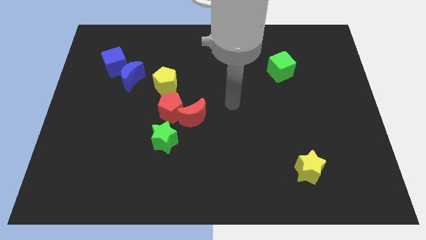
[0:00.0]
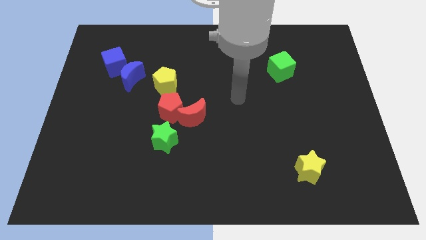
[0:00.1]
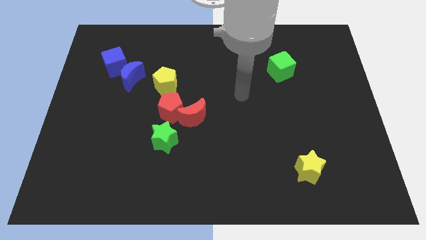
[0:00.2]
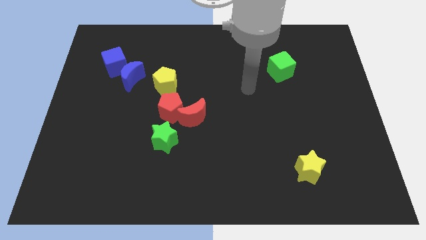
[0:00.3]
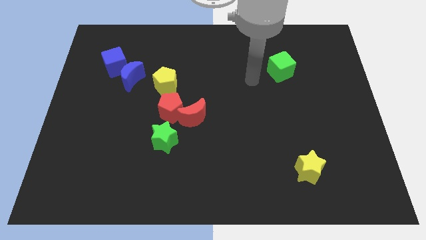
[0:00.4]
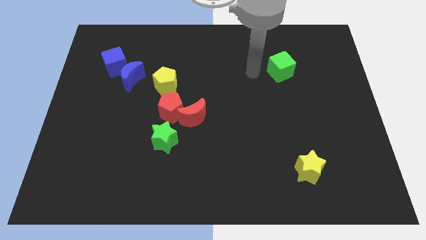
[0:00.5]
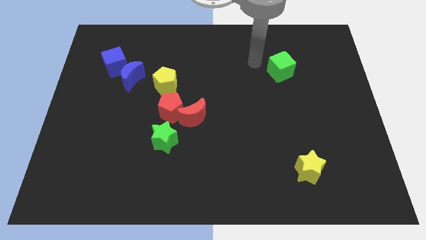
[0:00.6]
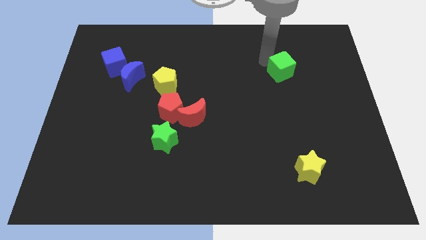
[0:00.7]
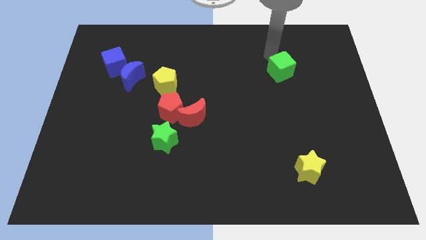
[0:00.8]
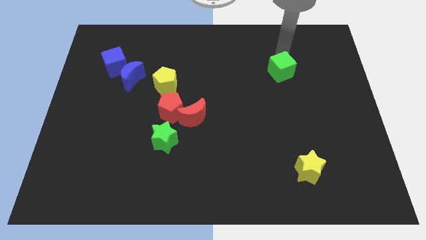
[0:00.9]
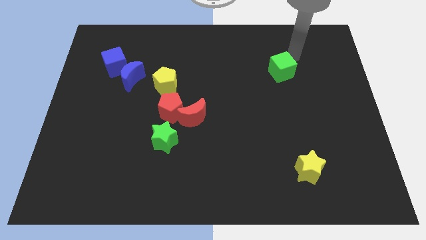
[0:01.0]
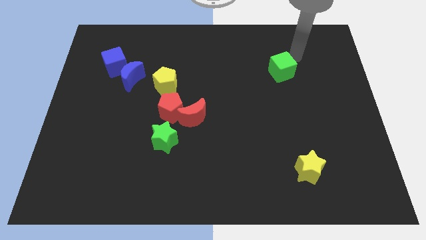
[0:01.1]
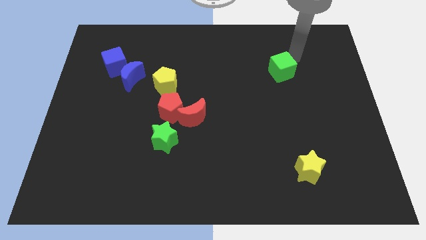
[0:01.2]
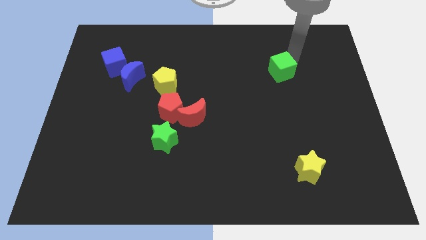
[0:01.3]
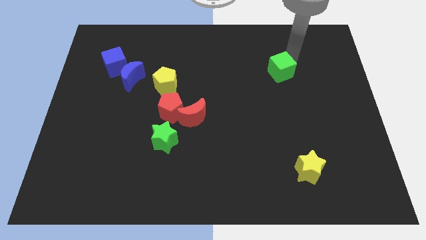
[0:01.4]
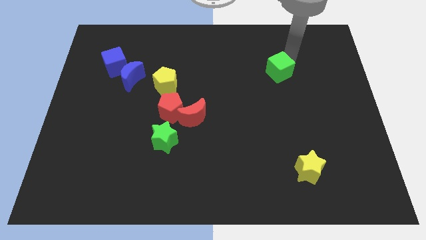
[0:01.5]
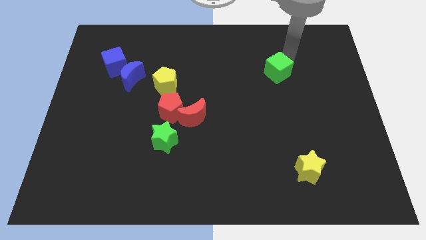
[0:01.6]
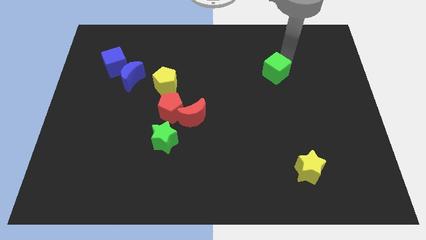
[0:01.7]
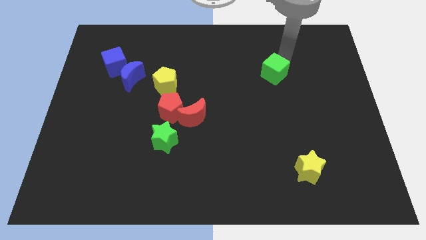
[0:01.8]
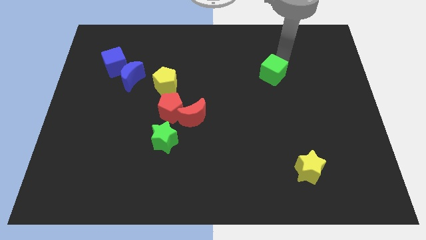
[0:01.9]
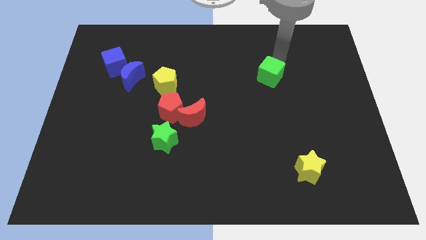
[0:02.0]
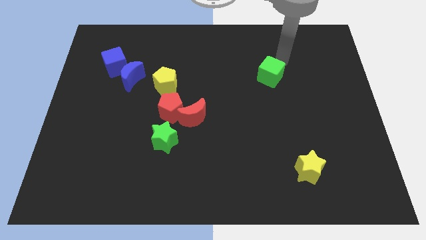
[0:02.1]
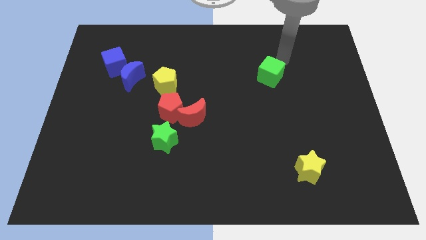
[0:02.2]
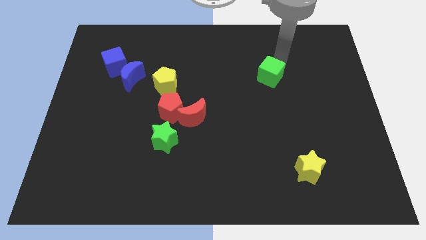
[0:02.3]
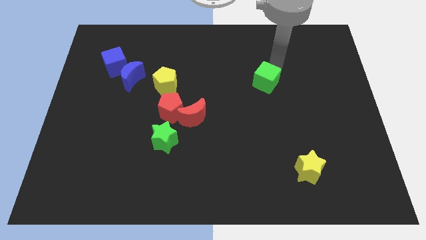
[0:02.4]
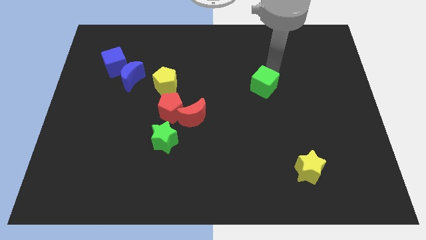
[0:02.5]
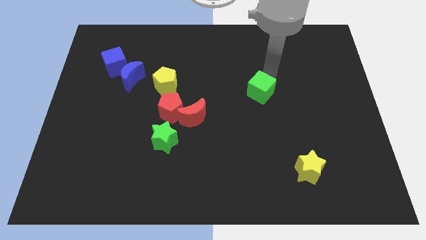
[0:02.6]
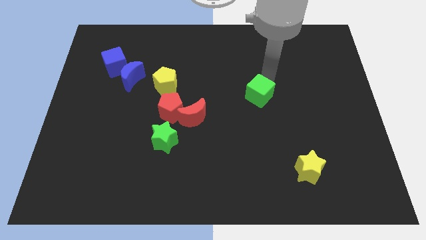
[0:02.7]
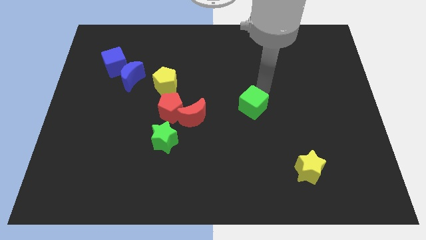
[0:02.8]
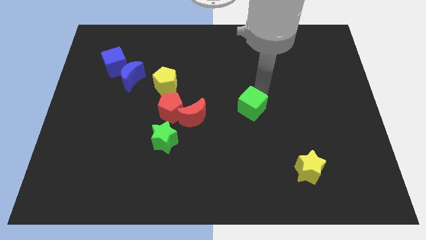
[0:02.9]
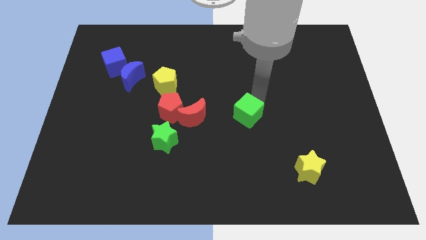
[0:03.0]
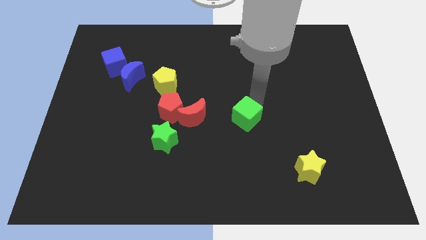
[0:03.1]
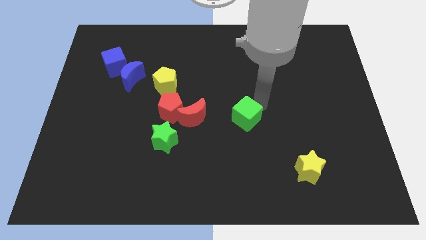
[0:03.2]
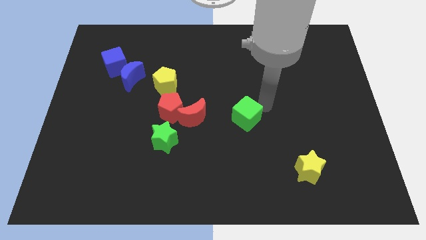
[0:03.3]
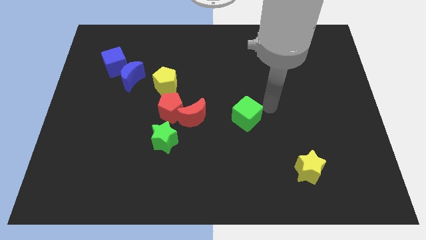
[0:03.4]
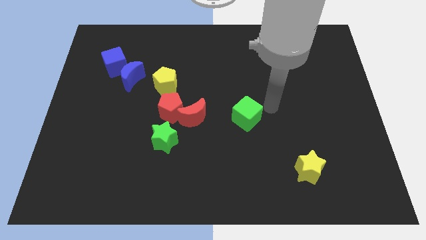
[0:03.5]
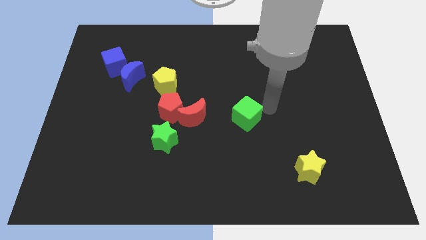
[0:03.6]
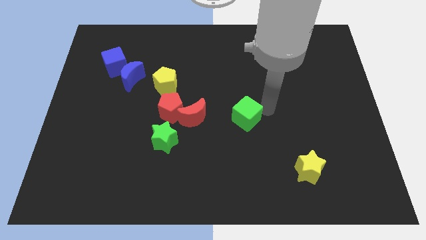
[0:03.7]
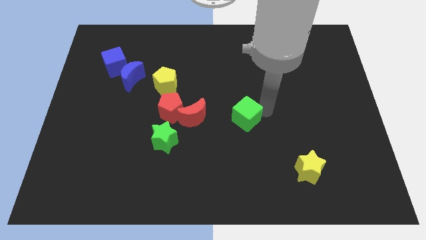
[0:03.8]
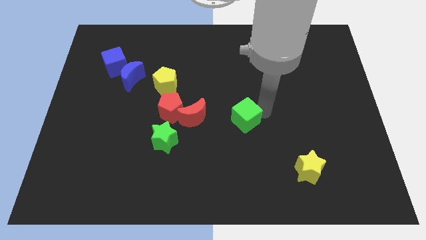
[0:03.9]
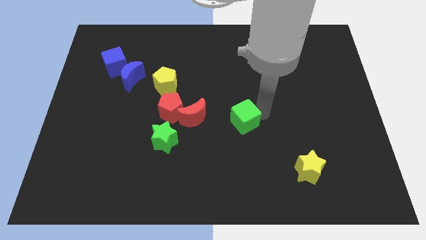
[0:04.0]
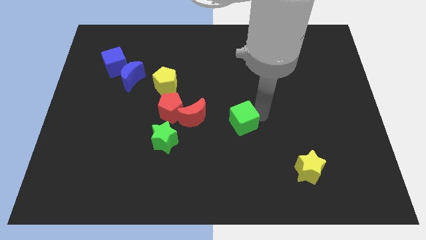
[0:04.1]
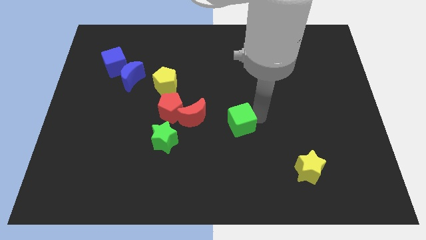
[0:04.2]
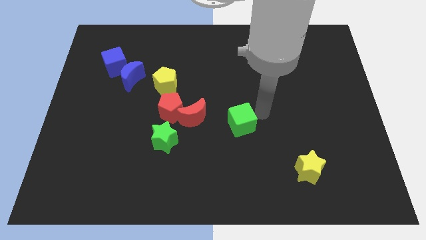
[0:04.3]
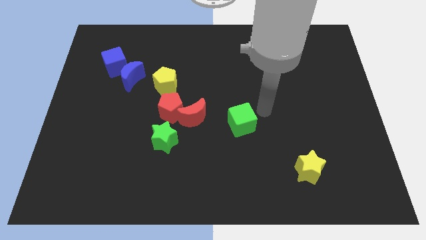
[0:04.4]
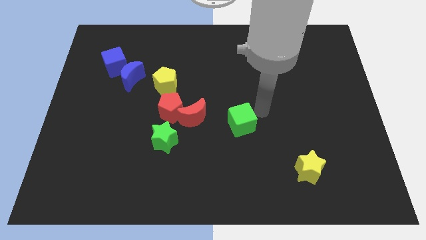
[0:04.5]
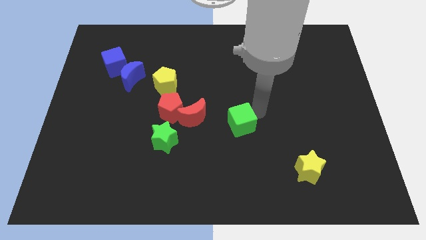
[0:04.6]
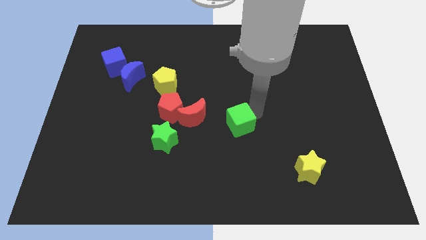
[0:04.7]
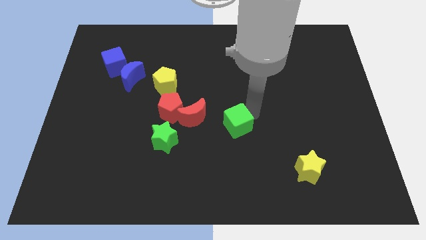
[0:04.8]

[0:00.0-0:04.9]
slide the green cube down and left

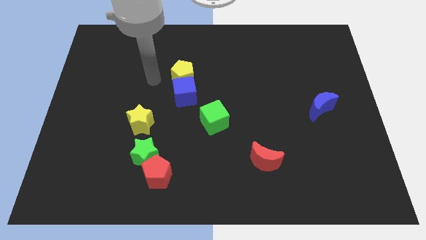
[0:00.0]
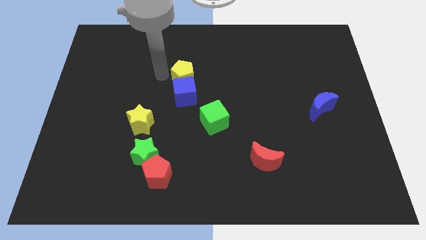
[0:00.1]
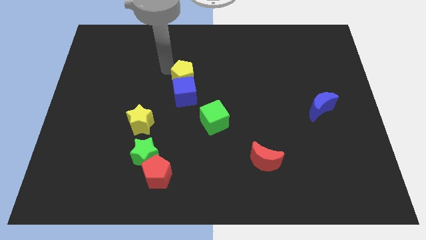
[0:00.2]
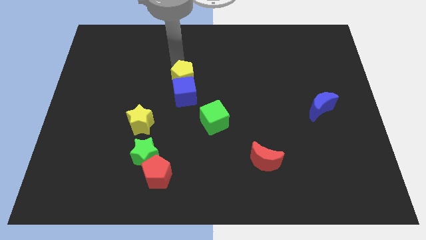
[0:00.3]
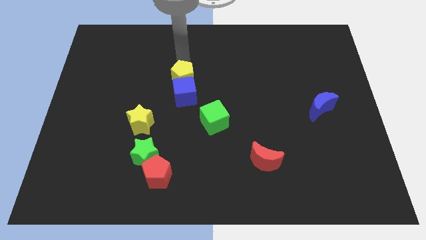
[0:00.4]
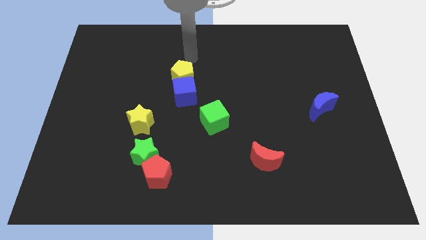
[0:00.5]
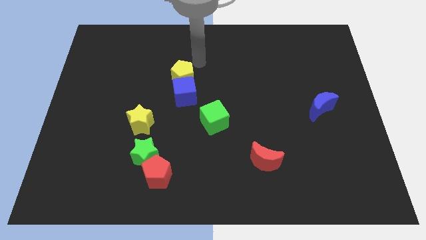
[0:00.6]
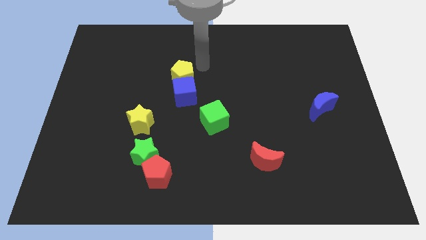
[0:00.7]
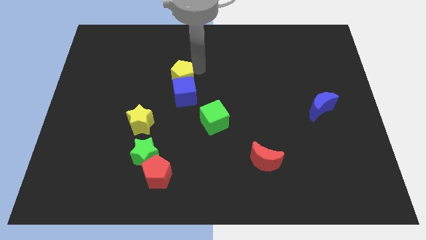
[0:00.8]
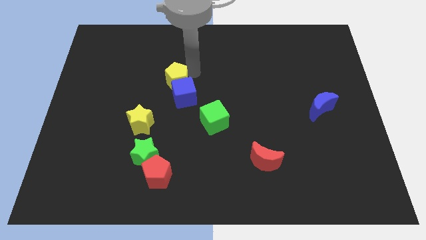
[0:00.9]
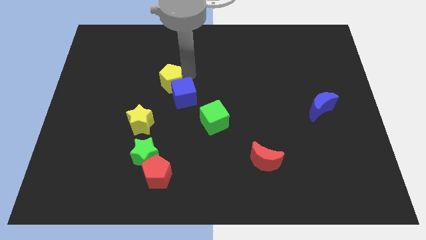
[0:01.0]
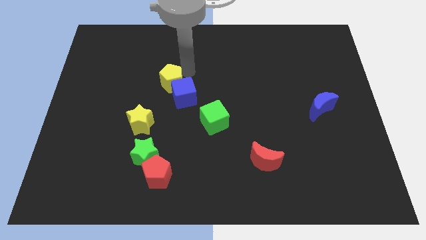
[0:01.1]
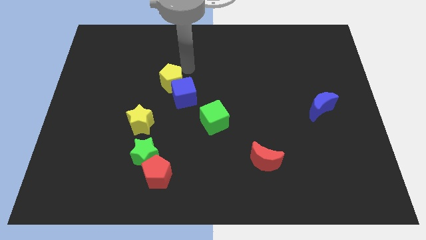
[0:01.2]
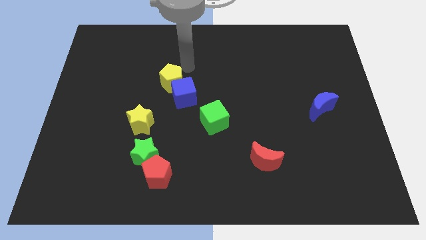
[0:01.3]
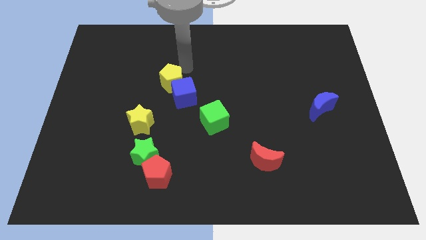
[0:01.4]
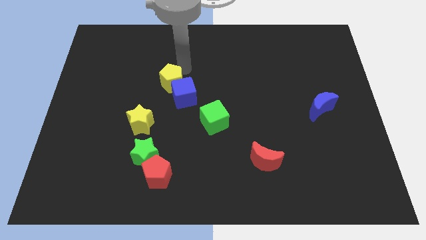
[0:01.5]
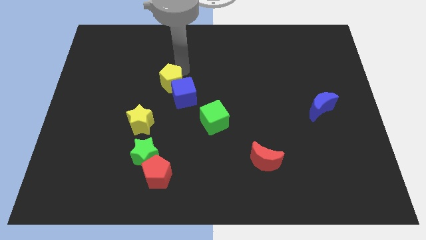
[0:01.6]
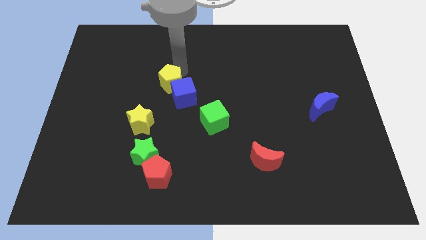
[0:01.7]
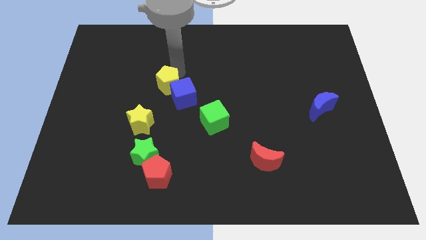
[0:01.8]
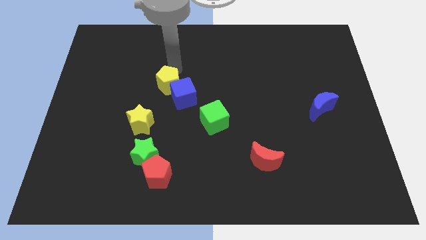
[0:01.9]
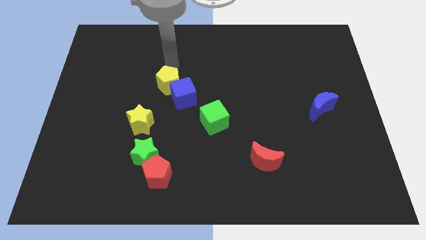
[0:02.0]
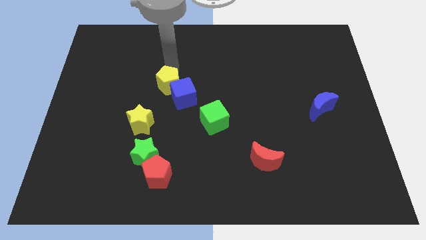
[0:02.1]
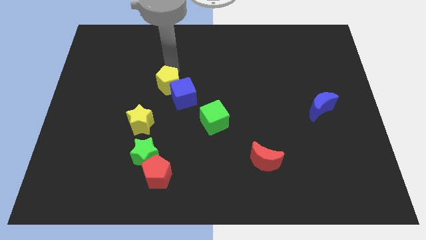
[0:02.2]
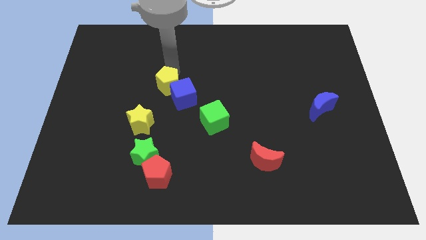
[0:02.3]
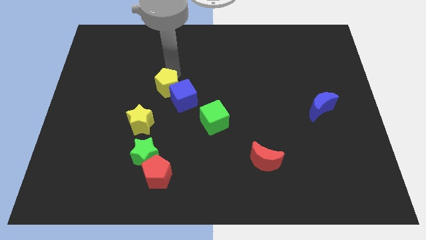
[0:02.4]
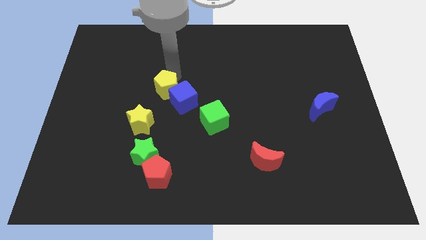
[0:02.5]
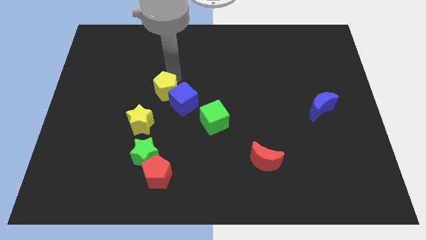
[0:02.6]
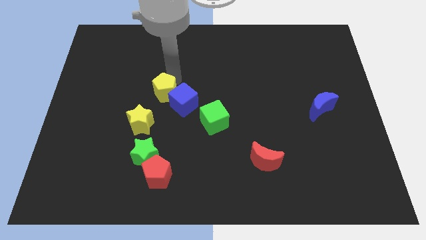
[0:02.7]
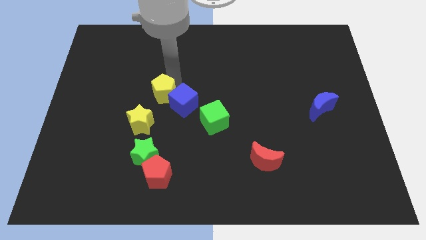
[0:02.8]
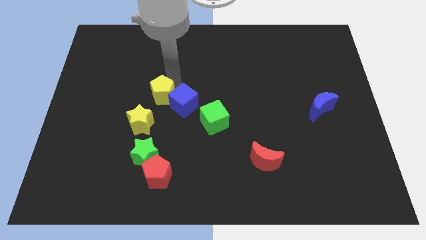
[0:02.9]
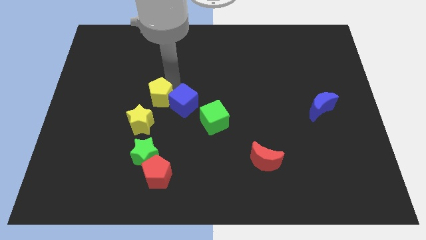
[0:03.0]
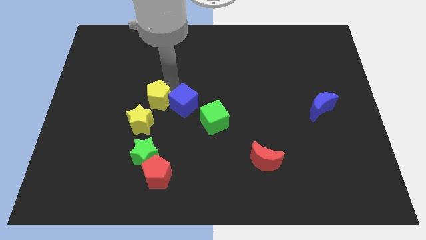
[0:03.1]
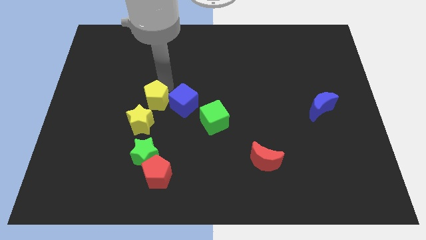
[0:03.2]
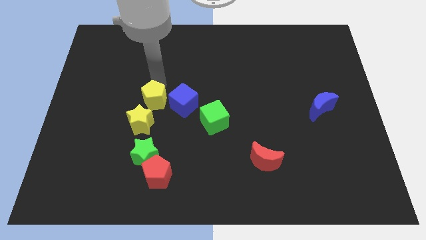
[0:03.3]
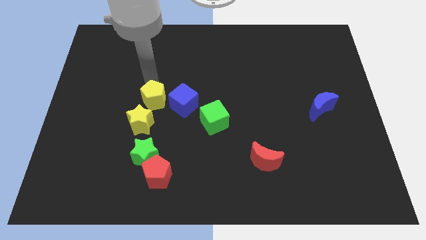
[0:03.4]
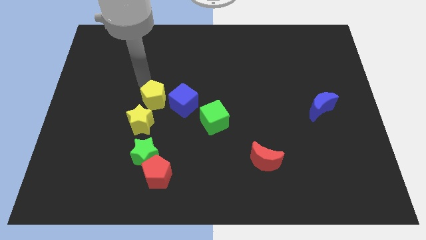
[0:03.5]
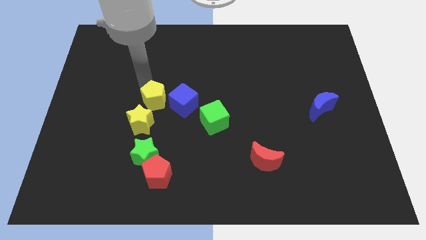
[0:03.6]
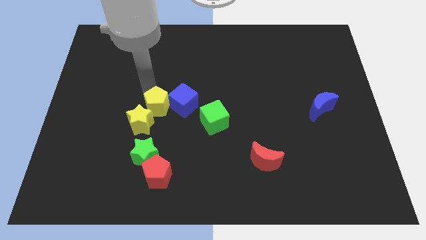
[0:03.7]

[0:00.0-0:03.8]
slide the yellow pentagon downwards a bit
